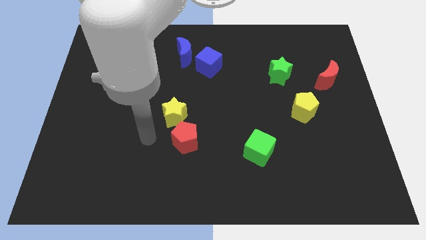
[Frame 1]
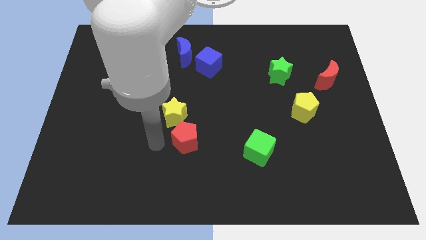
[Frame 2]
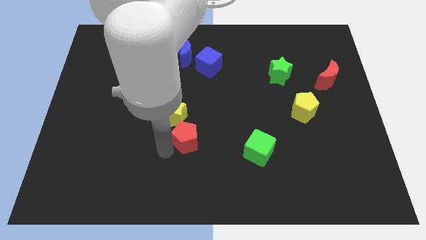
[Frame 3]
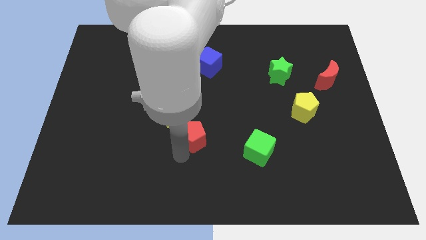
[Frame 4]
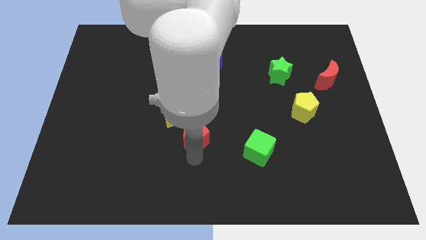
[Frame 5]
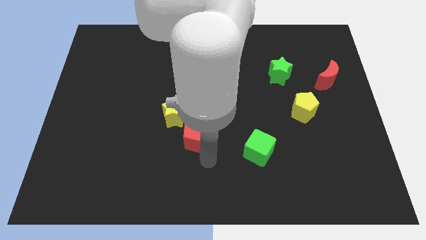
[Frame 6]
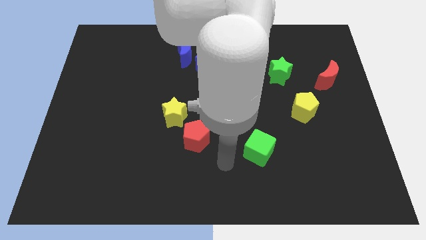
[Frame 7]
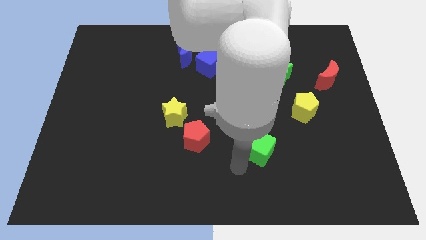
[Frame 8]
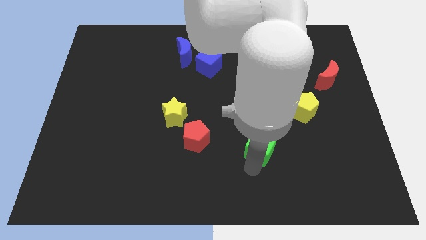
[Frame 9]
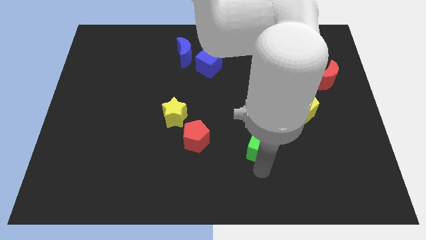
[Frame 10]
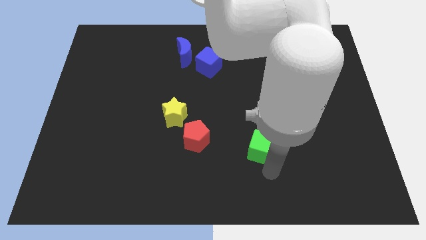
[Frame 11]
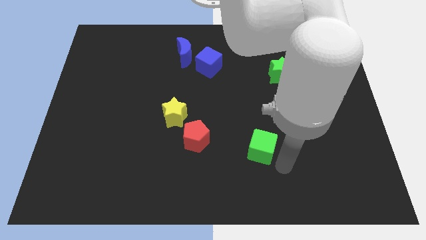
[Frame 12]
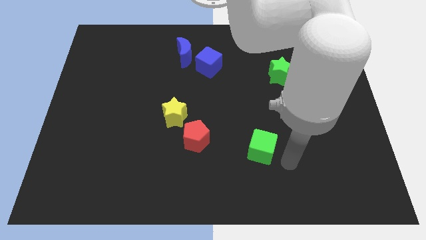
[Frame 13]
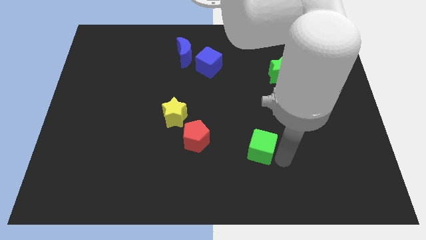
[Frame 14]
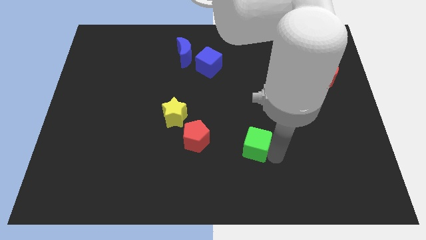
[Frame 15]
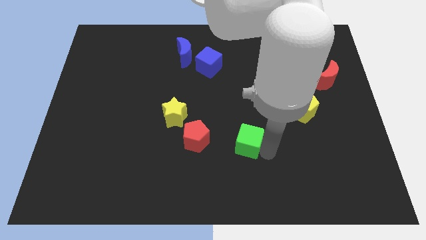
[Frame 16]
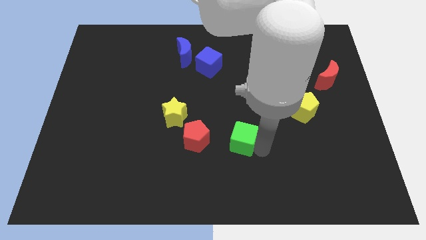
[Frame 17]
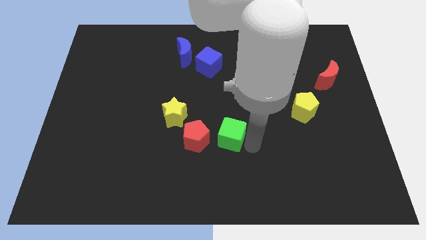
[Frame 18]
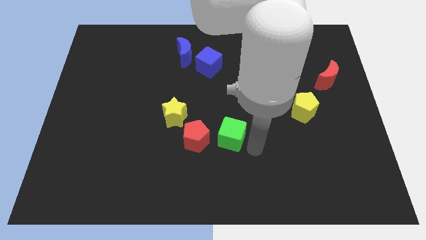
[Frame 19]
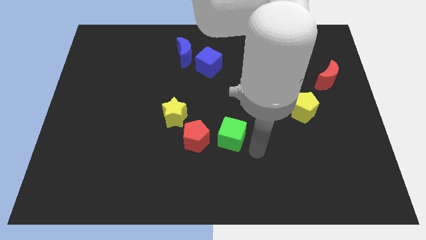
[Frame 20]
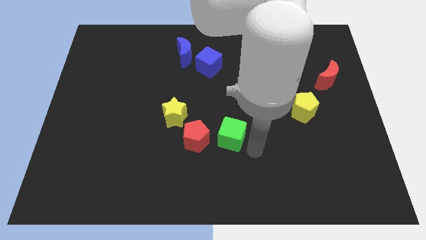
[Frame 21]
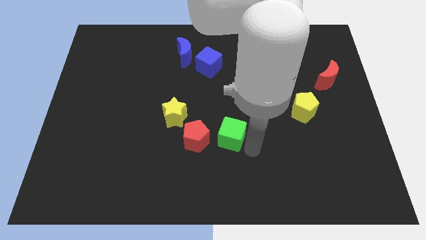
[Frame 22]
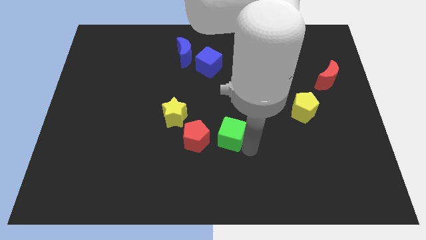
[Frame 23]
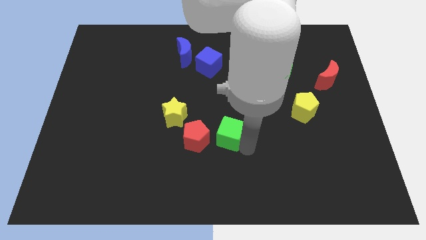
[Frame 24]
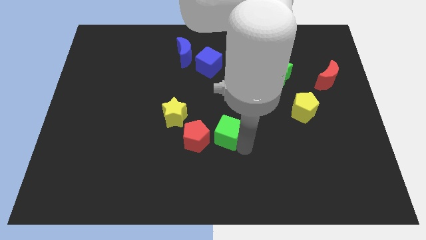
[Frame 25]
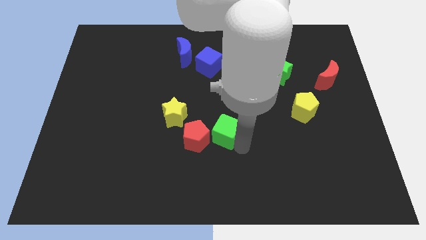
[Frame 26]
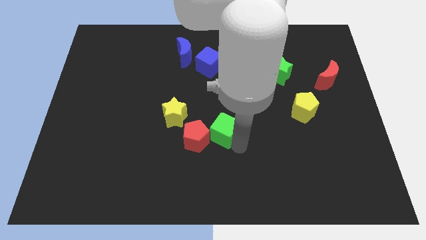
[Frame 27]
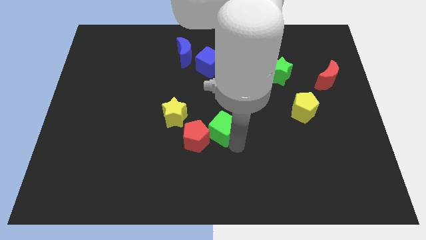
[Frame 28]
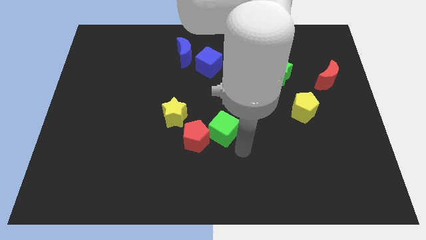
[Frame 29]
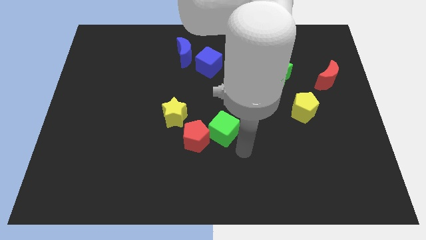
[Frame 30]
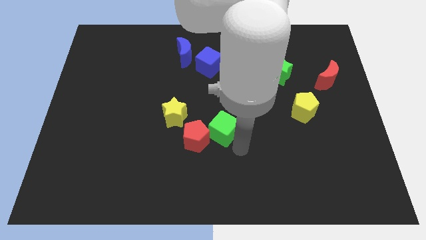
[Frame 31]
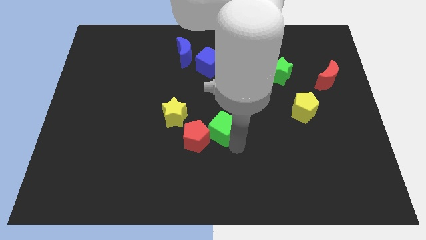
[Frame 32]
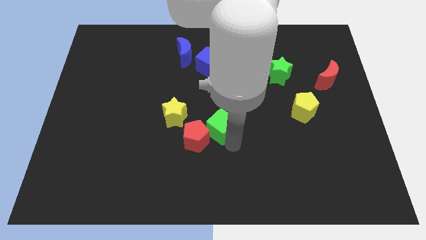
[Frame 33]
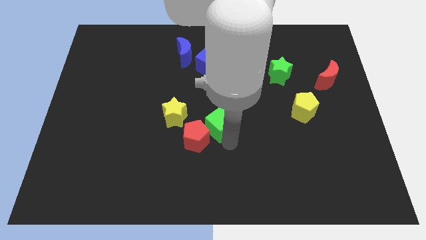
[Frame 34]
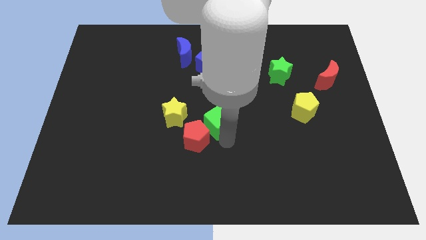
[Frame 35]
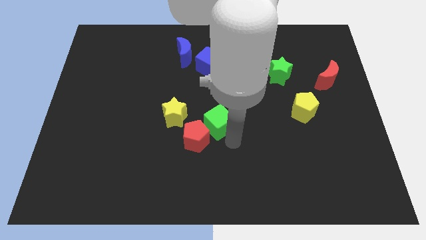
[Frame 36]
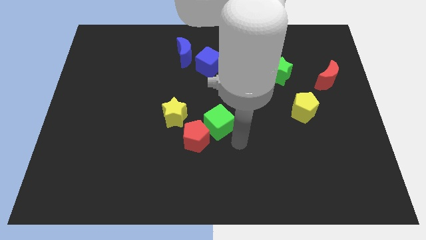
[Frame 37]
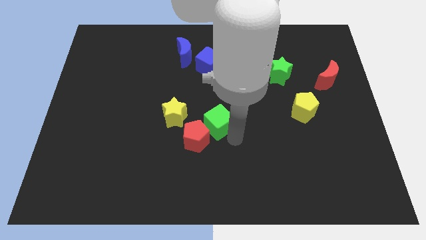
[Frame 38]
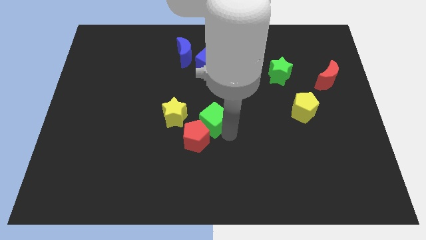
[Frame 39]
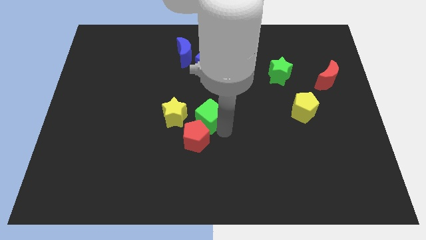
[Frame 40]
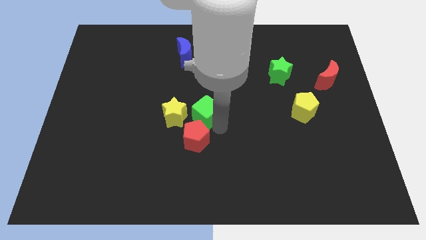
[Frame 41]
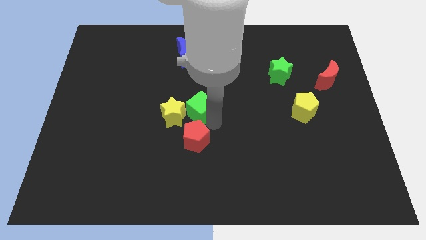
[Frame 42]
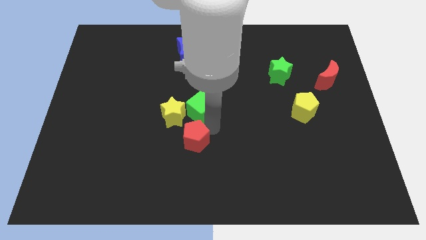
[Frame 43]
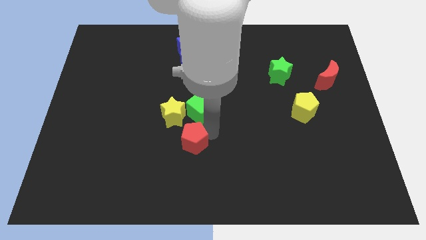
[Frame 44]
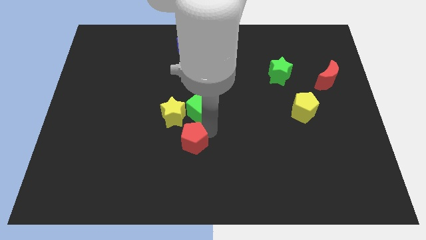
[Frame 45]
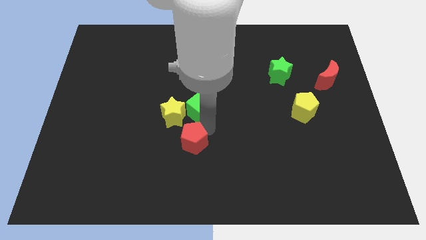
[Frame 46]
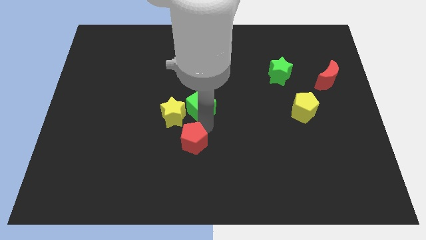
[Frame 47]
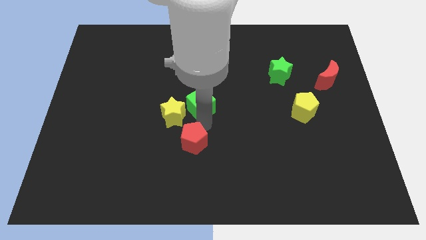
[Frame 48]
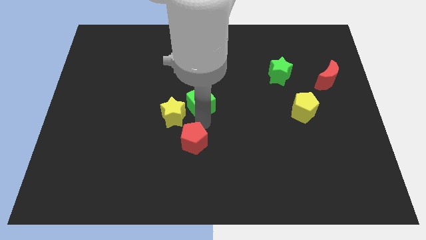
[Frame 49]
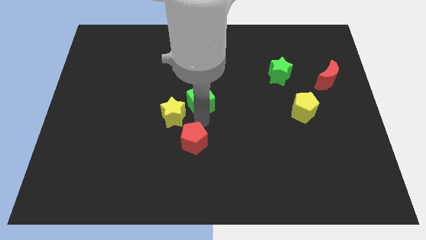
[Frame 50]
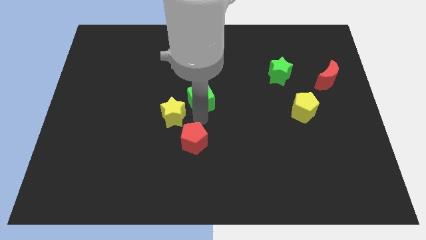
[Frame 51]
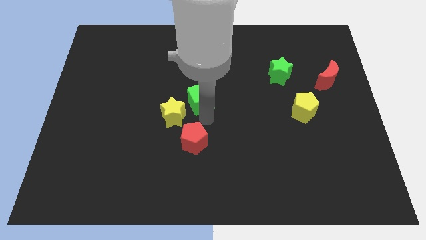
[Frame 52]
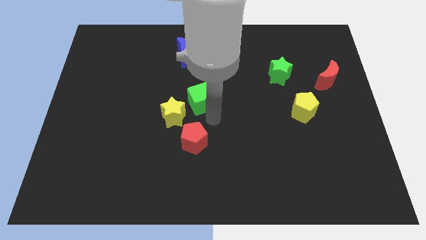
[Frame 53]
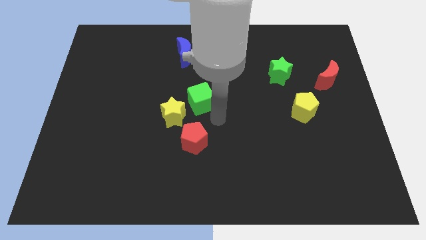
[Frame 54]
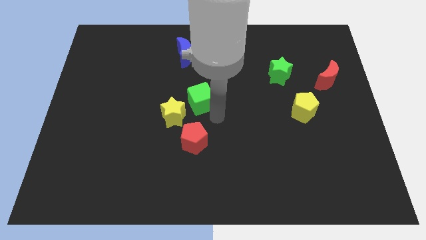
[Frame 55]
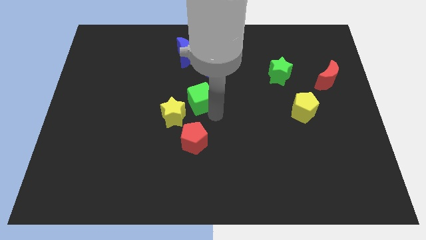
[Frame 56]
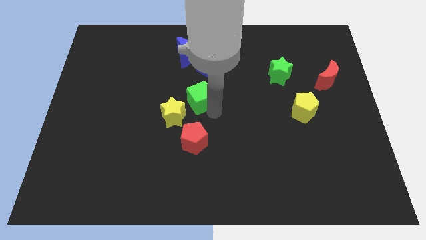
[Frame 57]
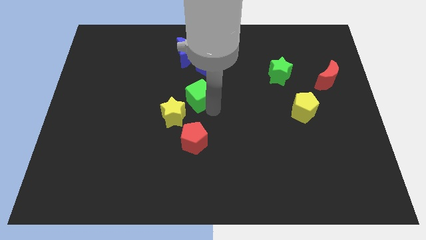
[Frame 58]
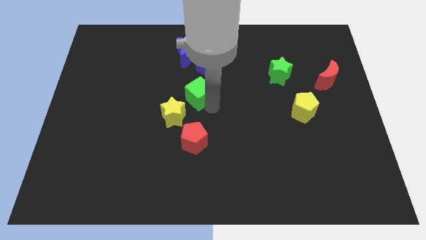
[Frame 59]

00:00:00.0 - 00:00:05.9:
slide the green cube to the bottom of the blue moon

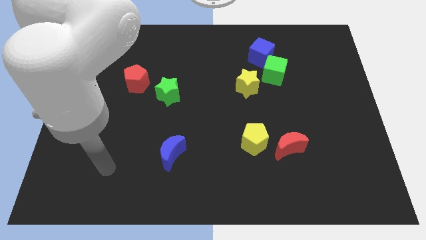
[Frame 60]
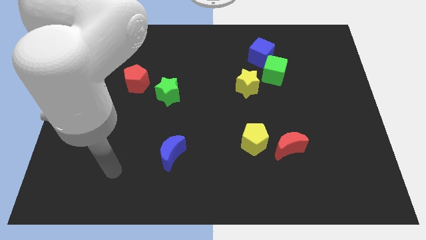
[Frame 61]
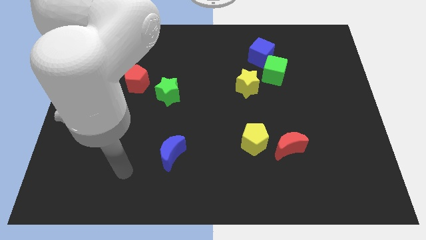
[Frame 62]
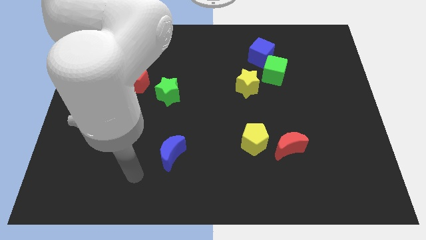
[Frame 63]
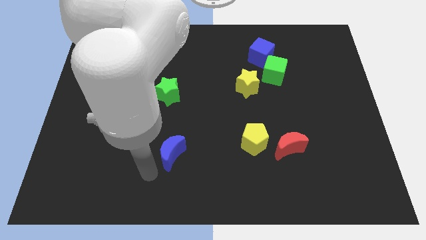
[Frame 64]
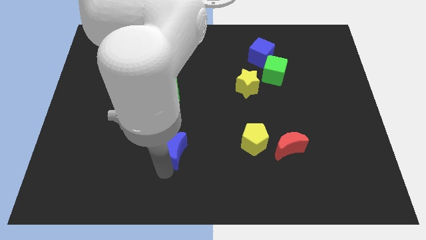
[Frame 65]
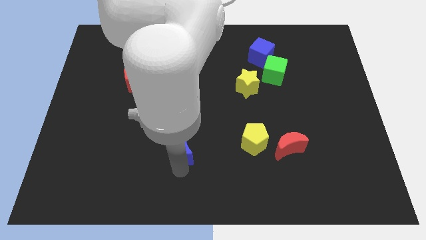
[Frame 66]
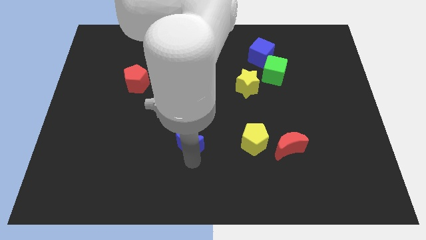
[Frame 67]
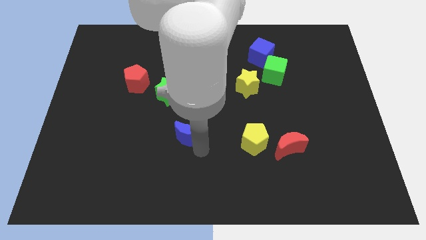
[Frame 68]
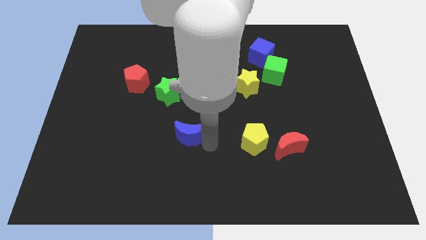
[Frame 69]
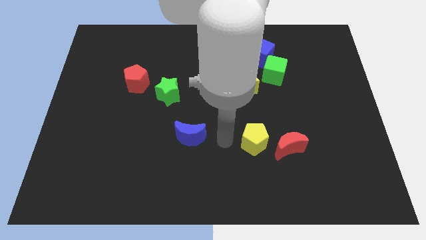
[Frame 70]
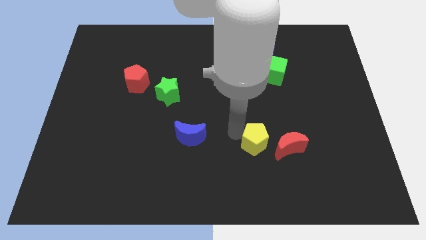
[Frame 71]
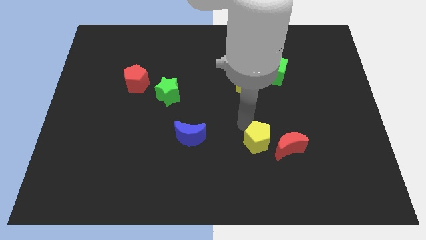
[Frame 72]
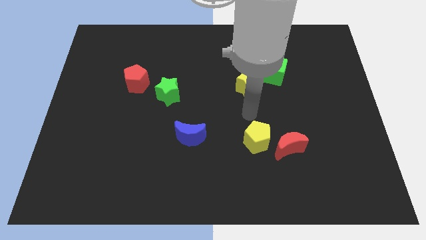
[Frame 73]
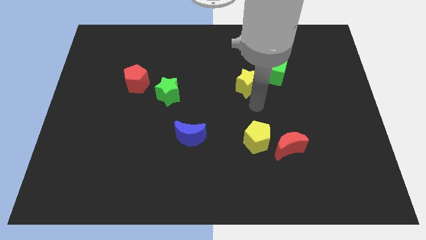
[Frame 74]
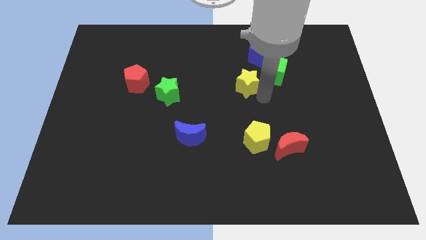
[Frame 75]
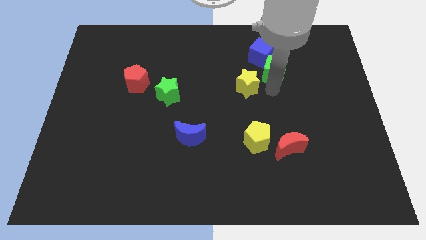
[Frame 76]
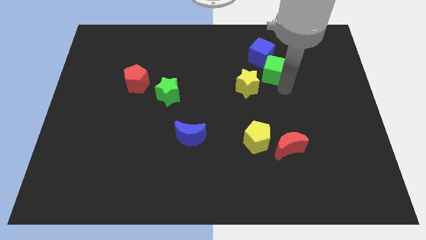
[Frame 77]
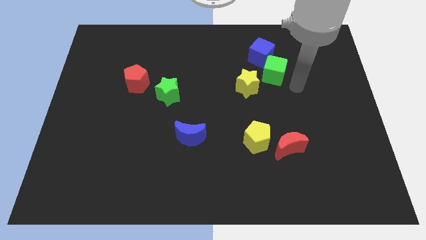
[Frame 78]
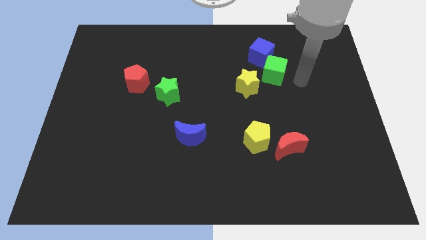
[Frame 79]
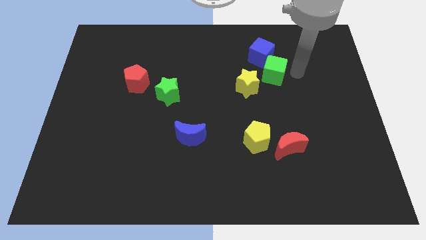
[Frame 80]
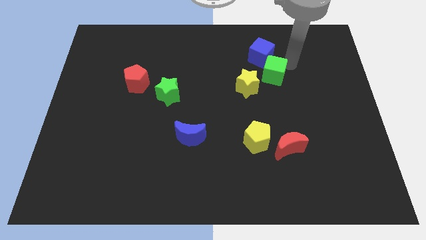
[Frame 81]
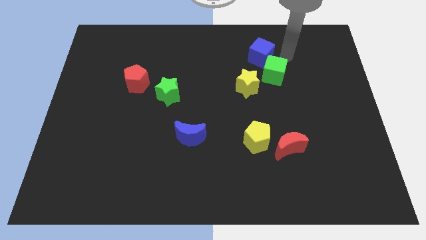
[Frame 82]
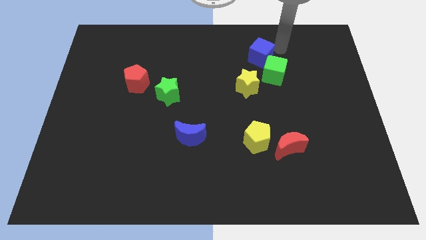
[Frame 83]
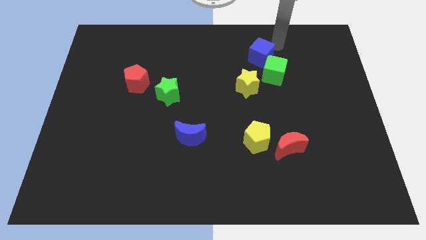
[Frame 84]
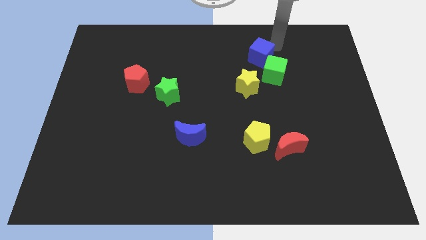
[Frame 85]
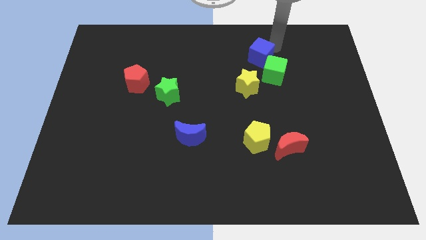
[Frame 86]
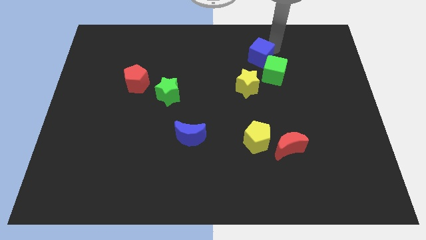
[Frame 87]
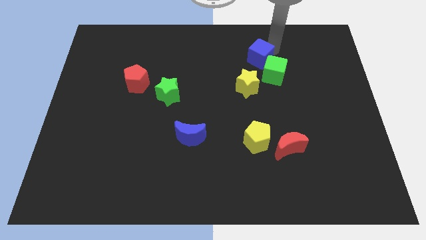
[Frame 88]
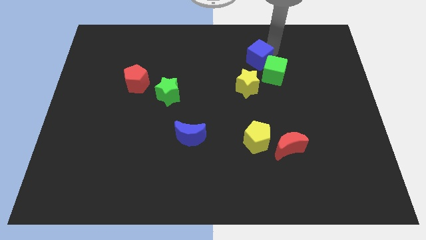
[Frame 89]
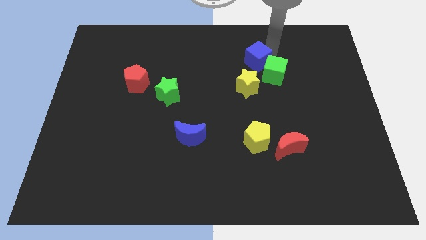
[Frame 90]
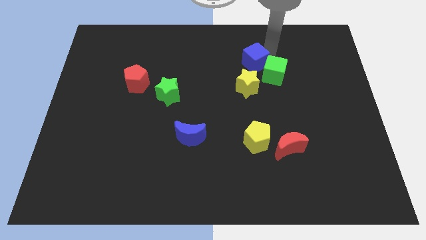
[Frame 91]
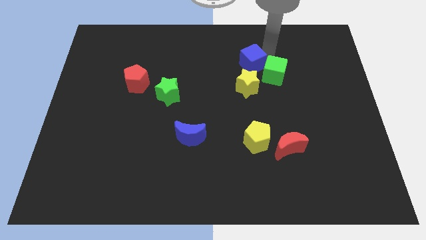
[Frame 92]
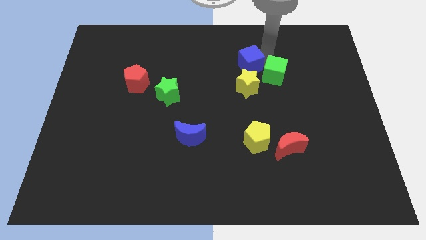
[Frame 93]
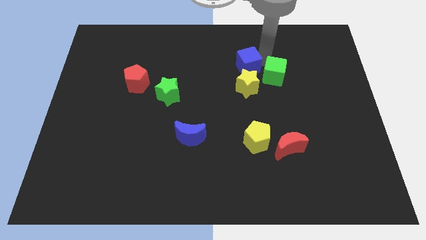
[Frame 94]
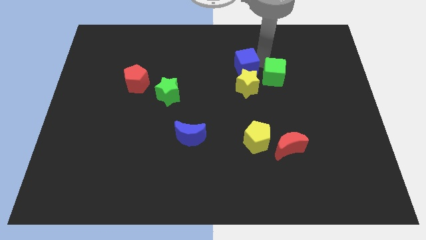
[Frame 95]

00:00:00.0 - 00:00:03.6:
put the blue cube to the top left of the yellow star
